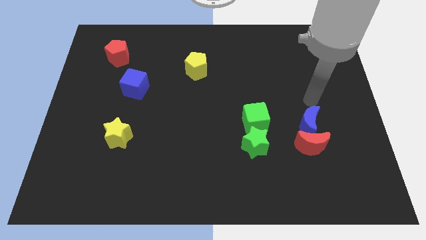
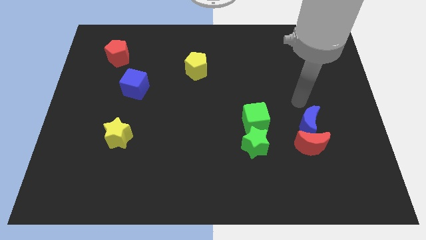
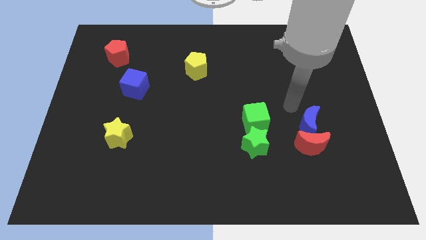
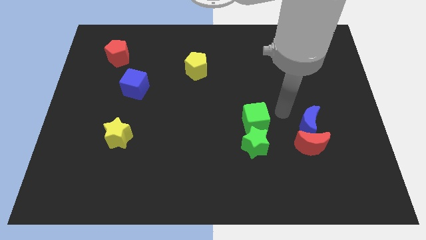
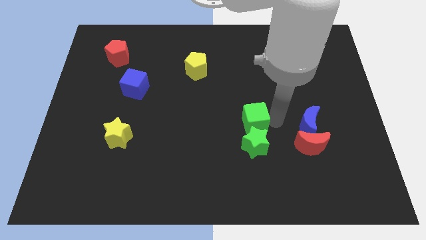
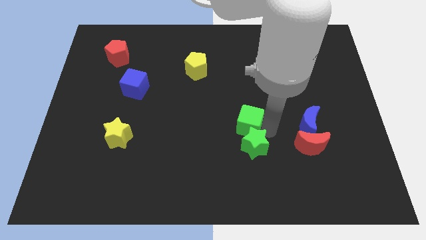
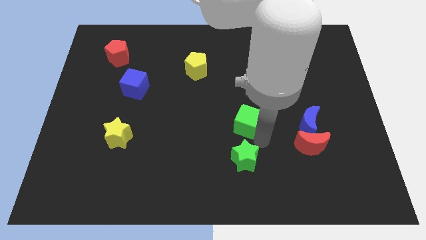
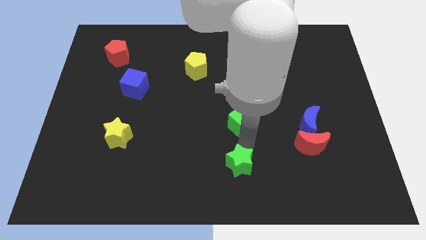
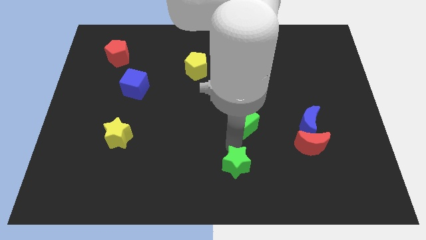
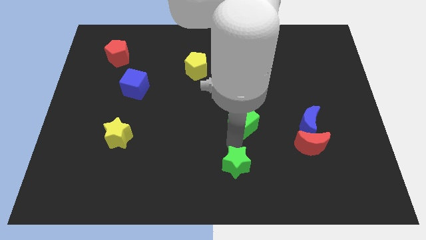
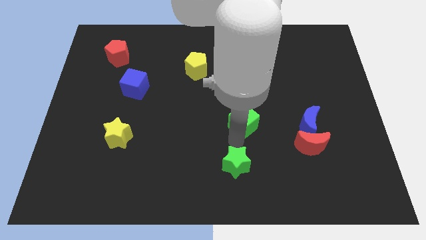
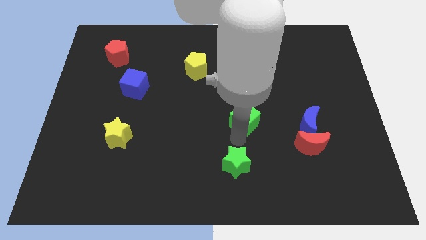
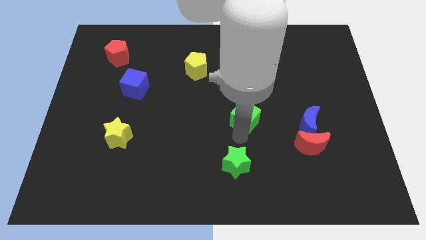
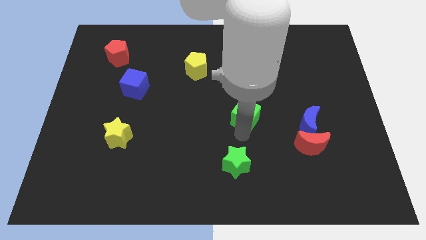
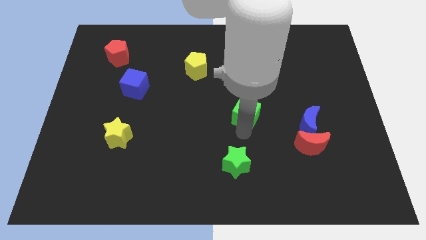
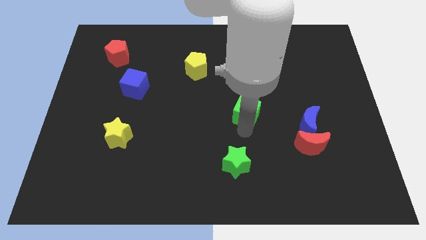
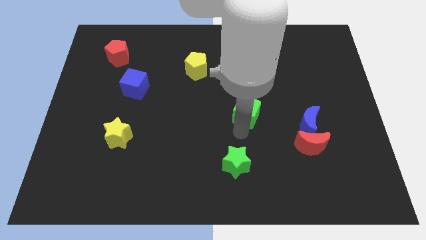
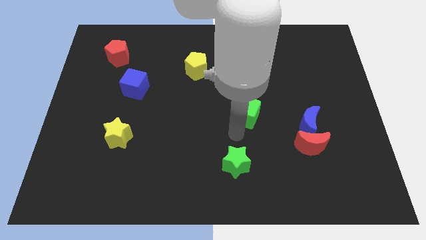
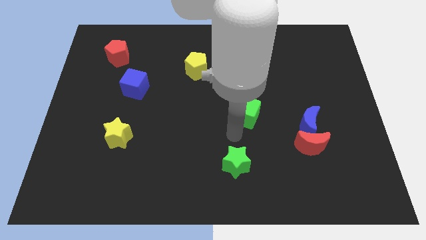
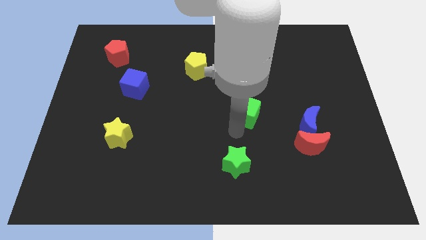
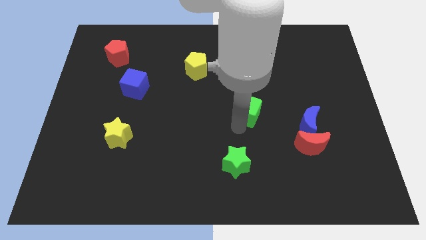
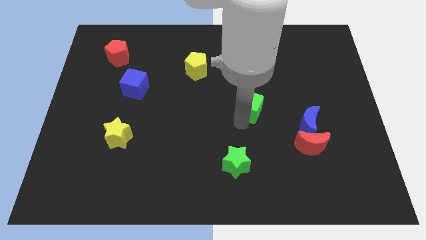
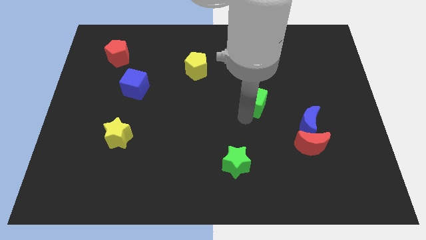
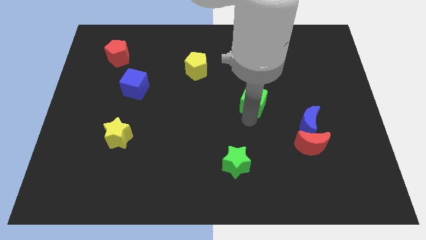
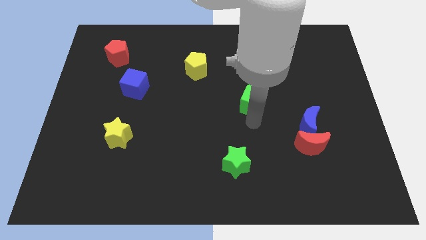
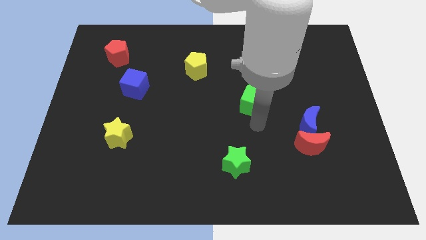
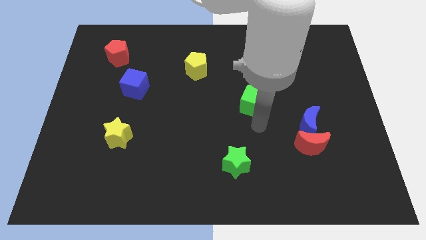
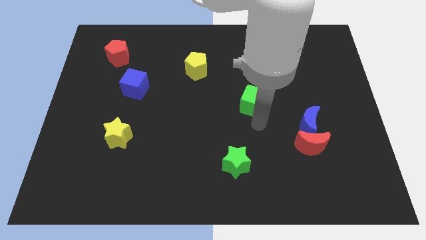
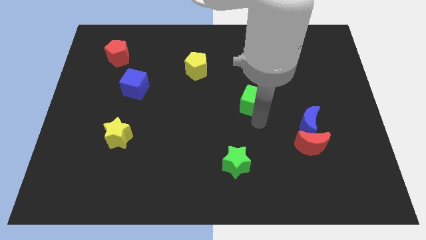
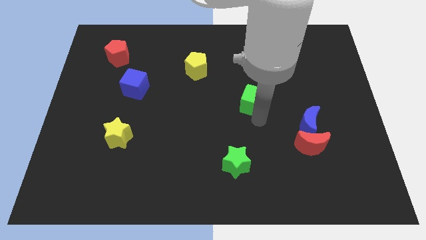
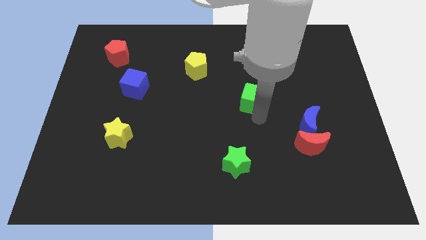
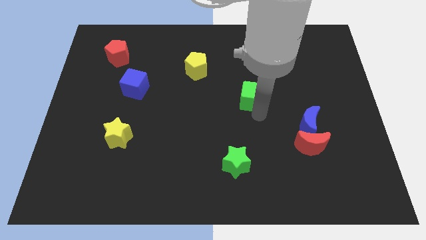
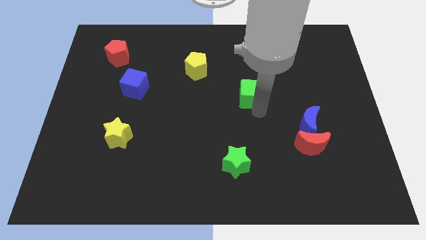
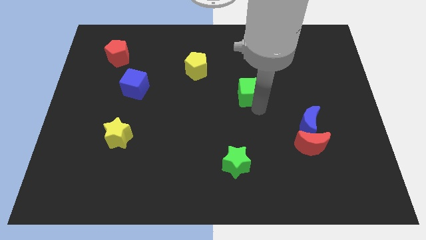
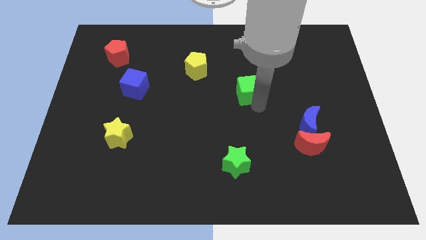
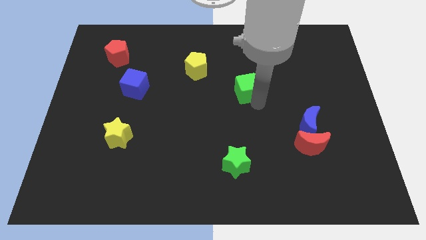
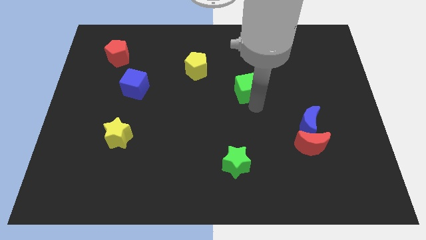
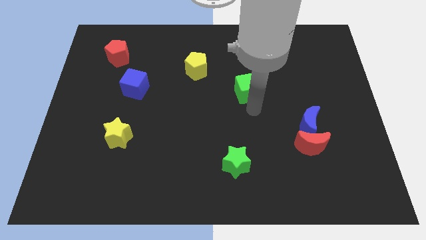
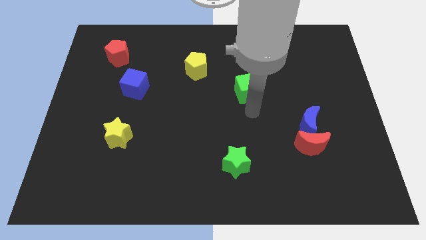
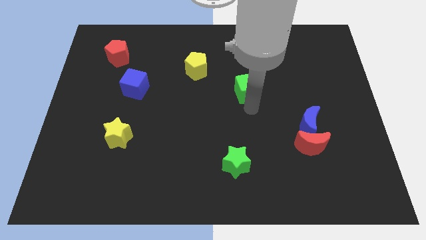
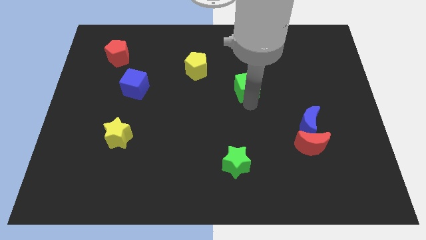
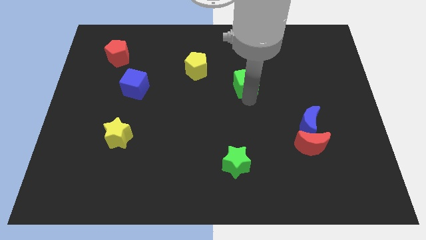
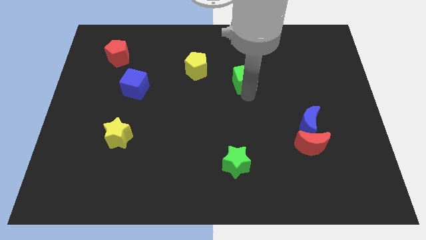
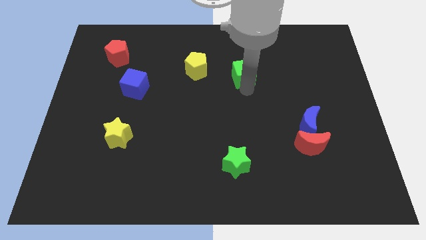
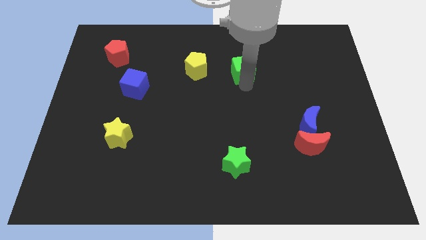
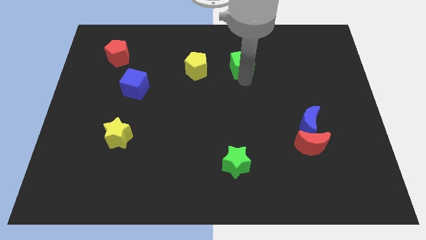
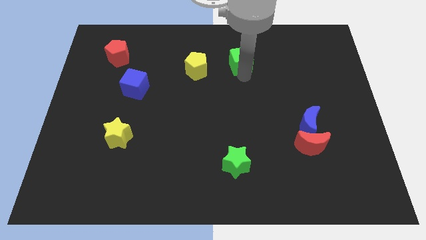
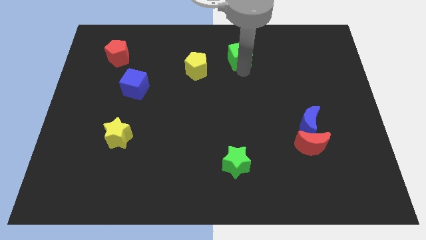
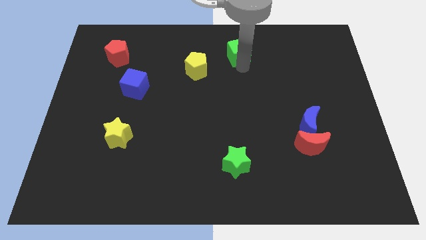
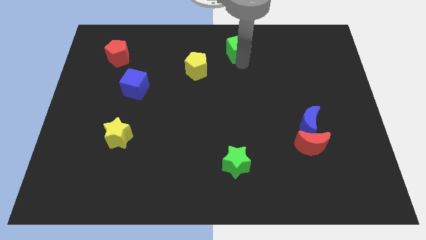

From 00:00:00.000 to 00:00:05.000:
slide the green cube to the top side

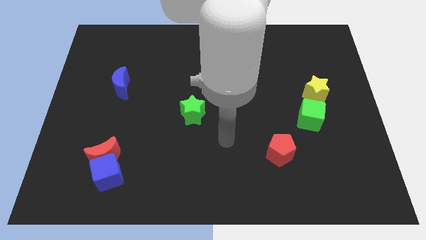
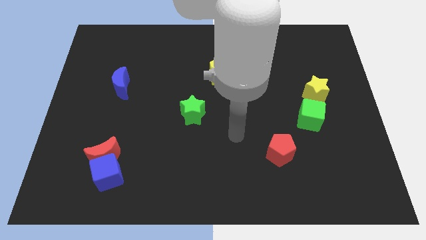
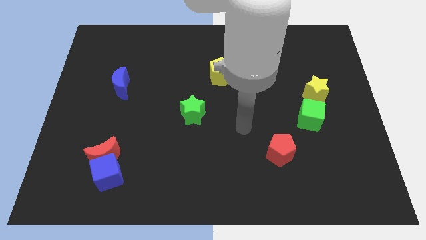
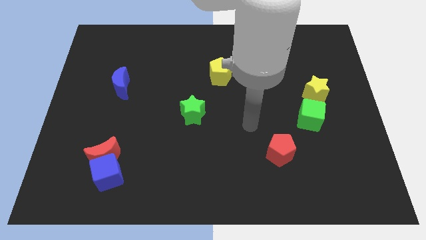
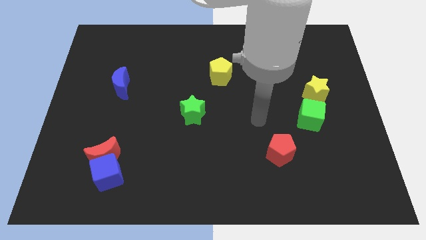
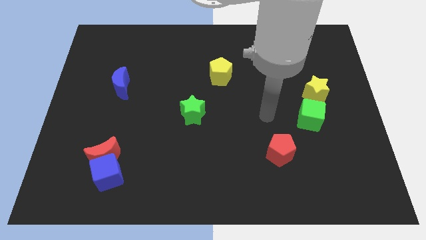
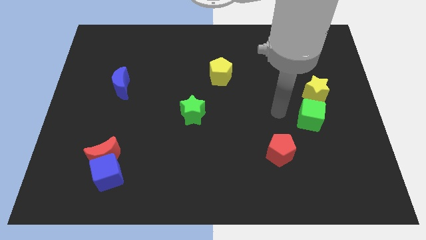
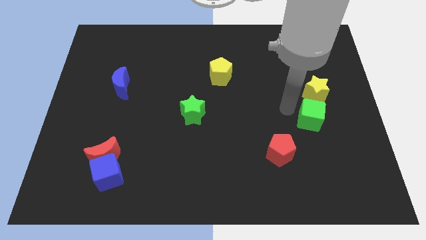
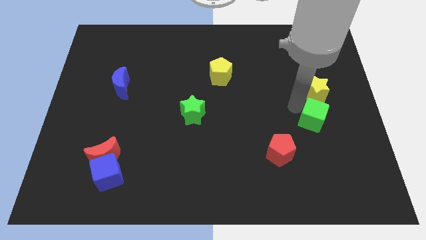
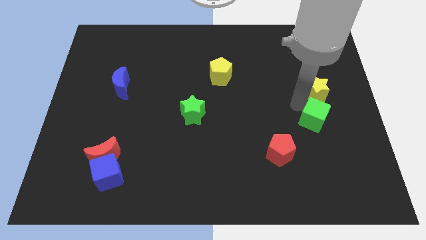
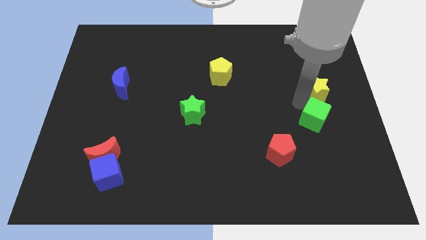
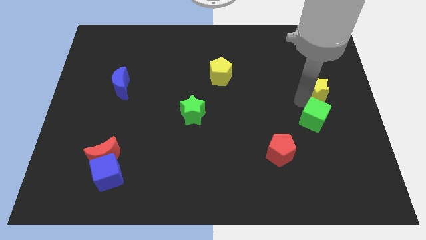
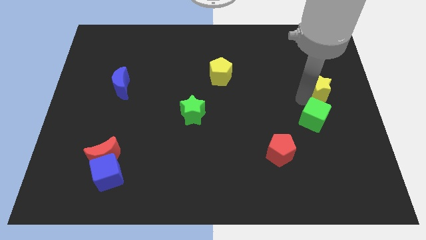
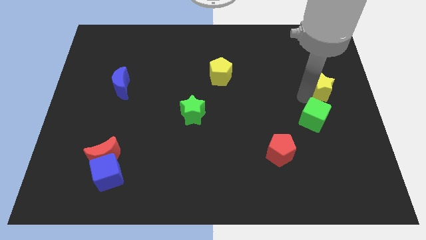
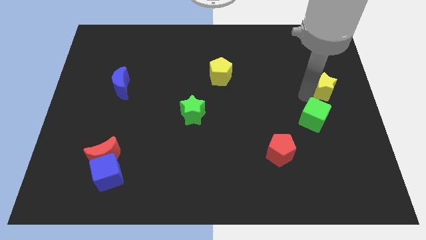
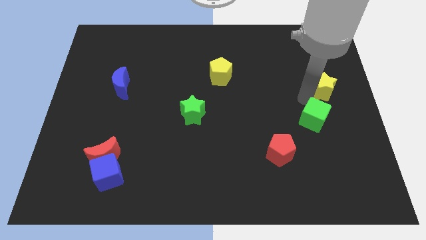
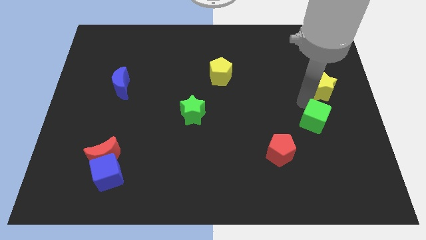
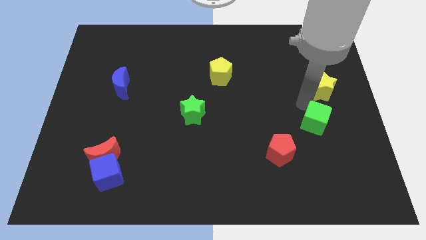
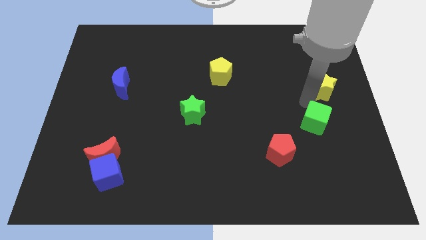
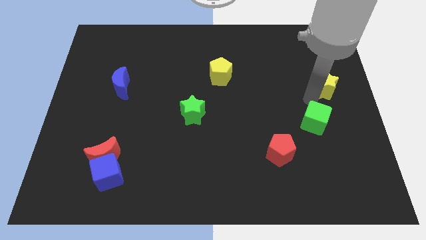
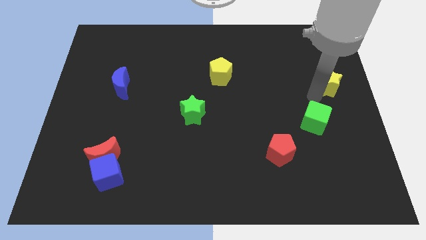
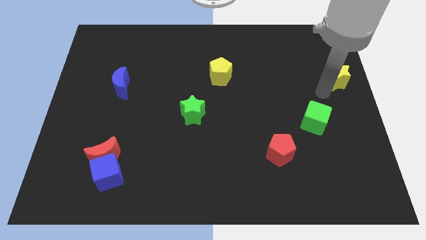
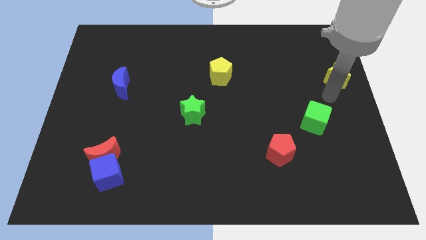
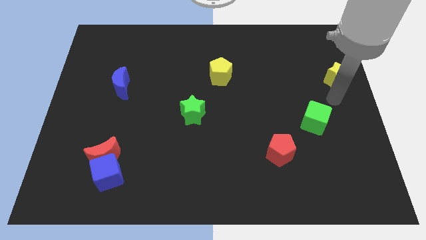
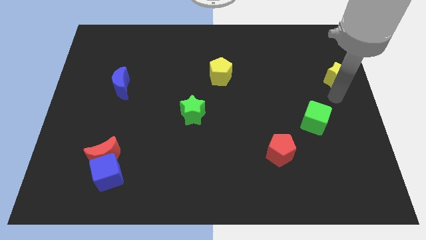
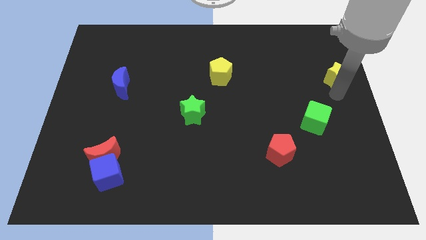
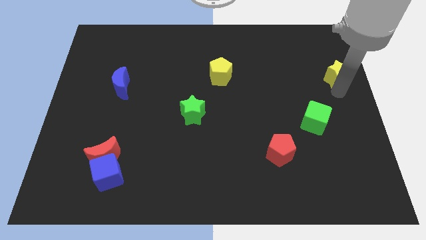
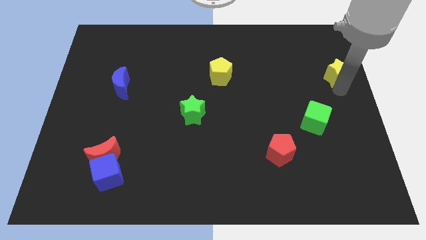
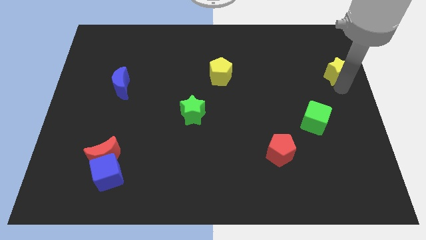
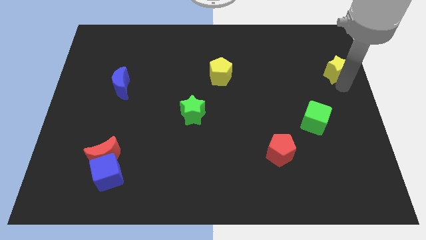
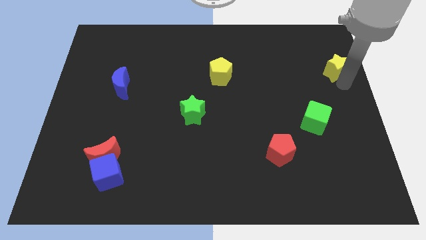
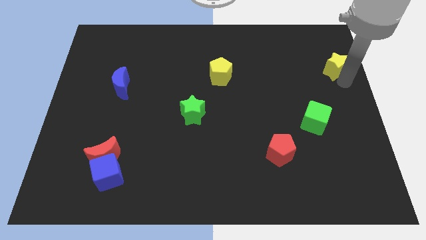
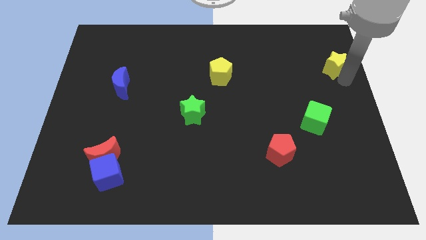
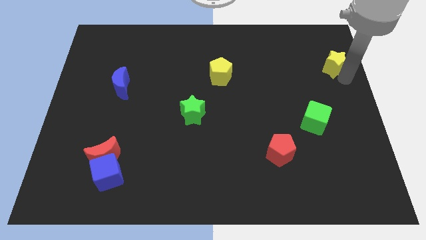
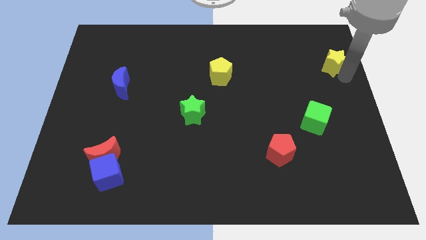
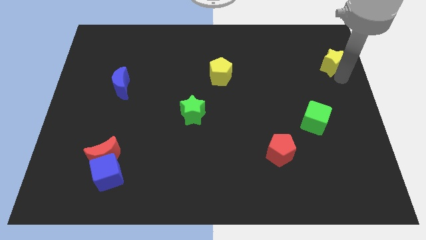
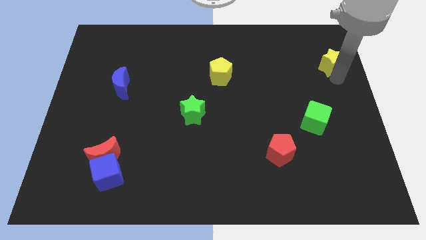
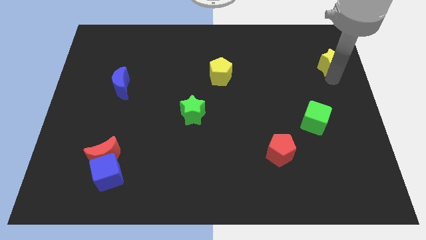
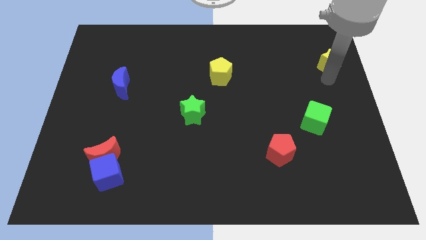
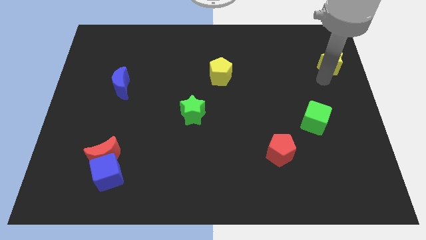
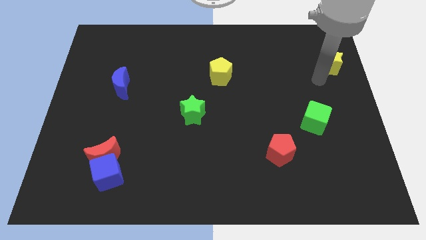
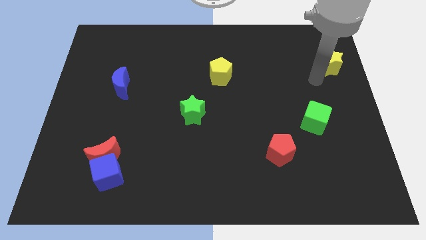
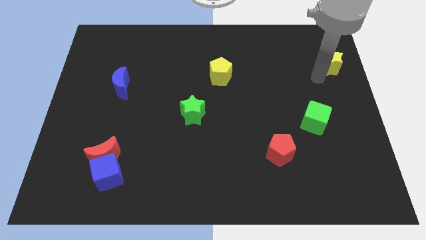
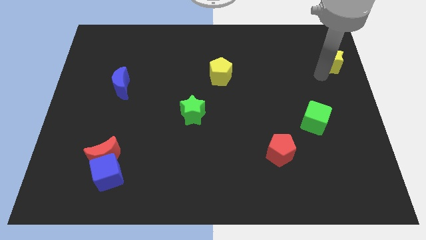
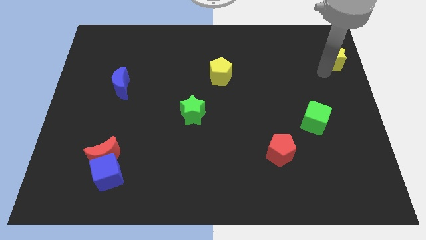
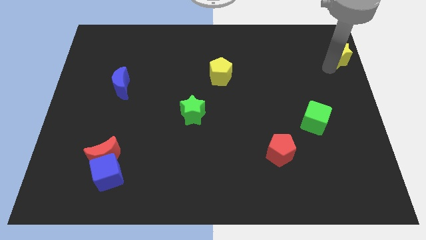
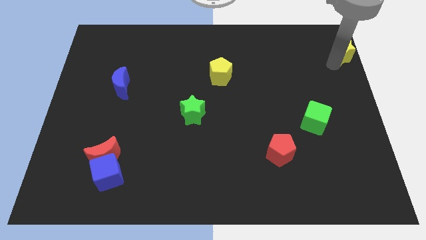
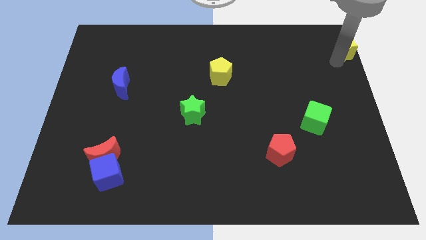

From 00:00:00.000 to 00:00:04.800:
move the yellow star to the top right of the board
